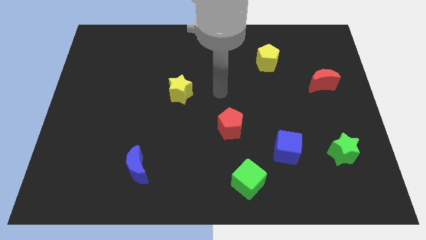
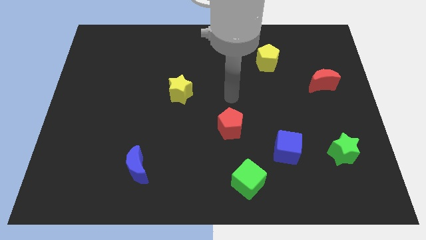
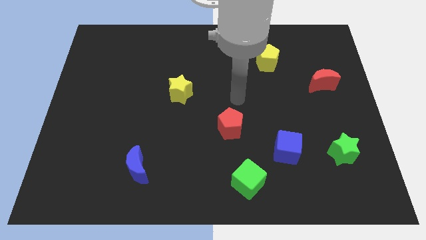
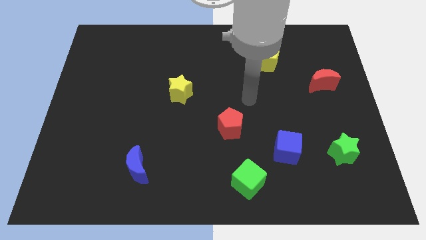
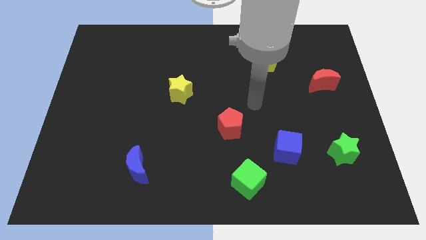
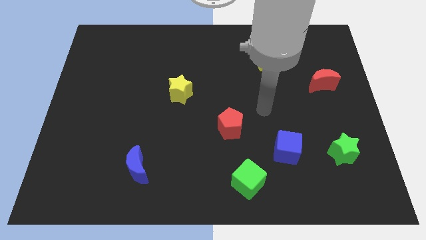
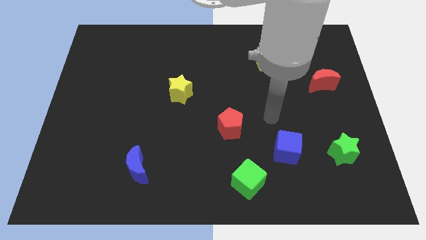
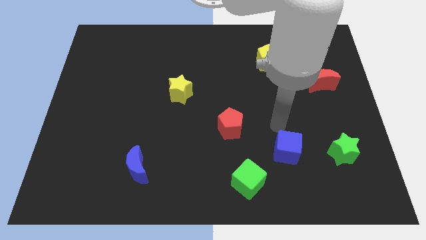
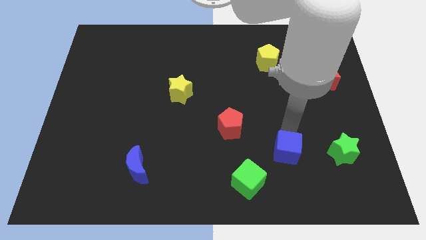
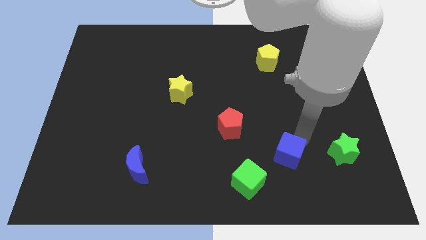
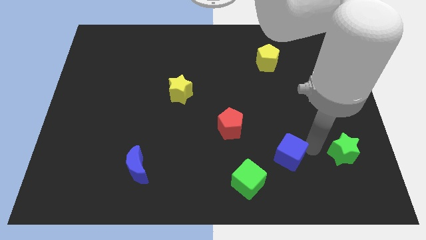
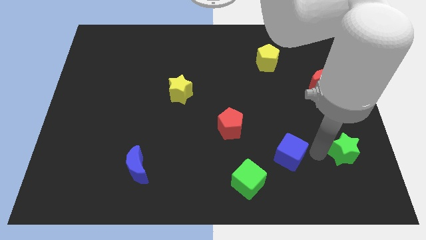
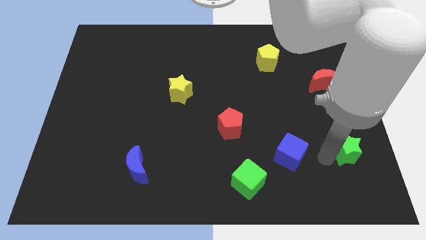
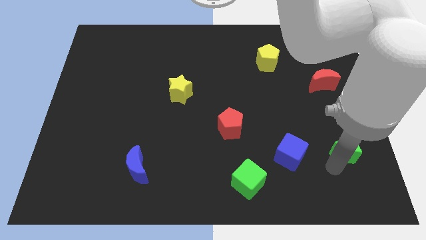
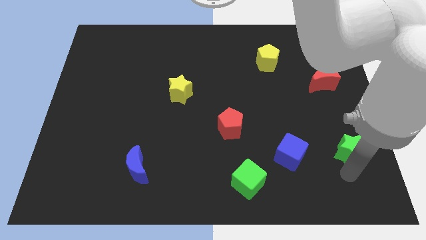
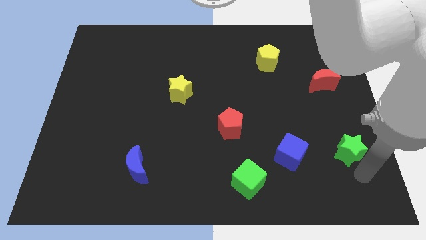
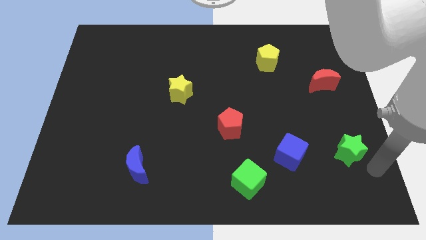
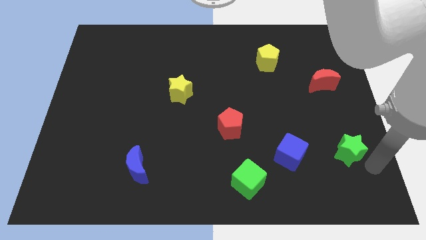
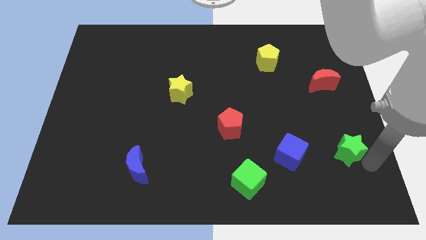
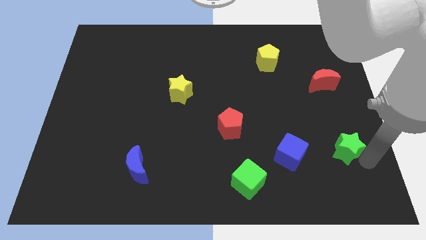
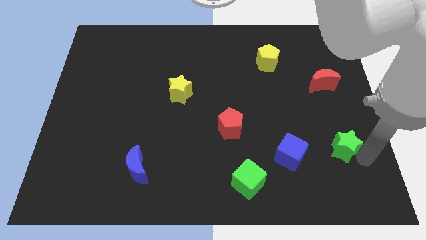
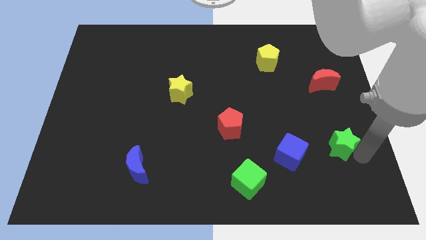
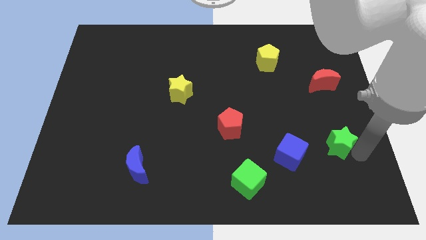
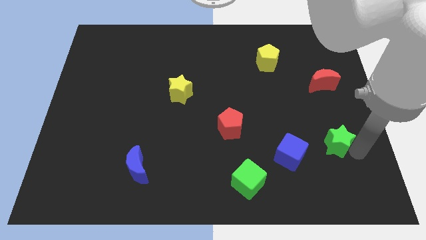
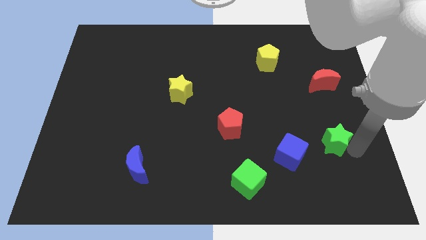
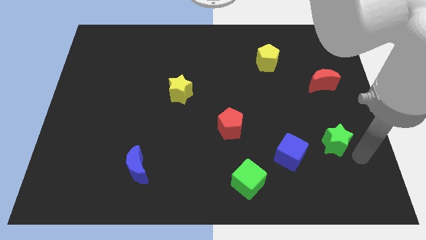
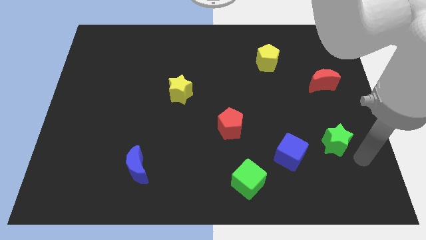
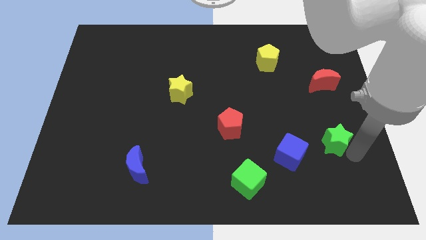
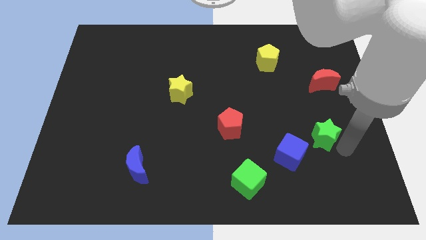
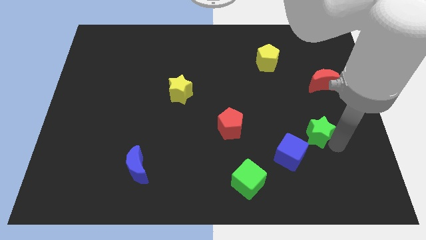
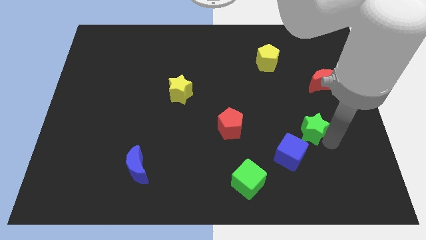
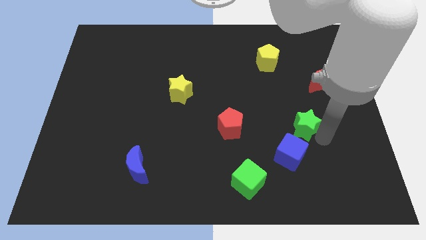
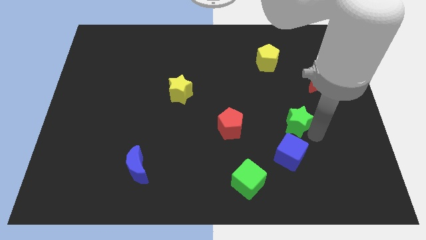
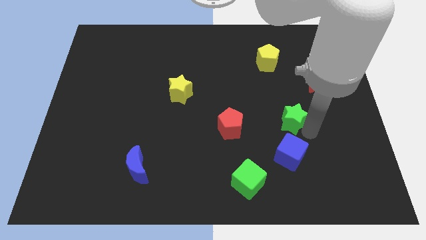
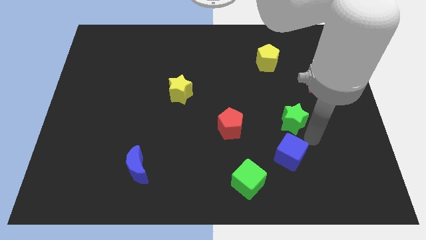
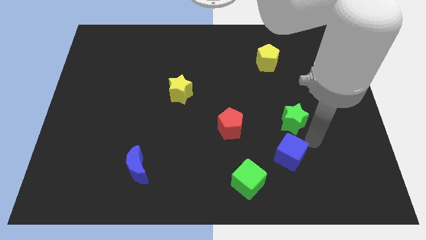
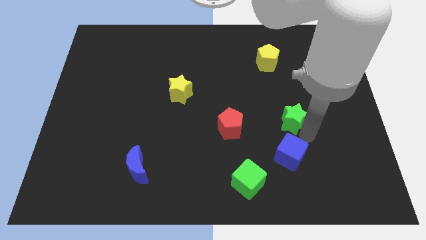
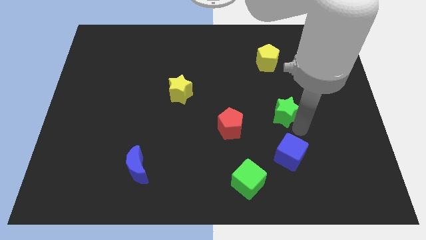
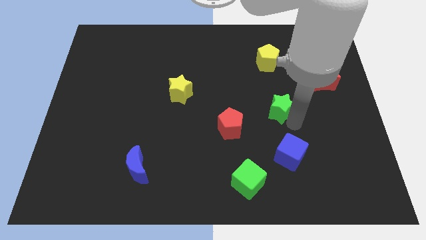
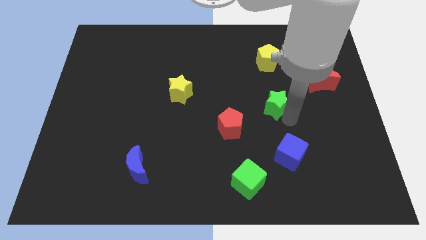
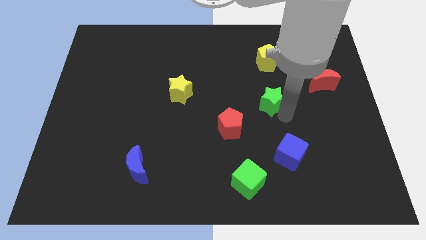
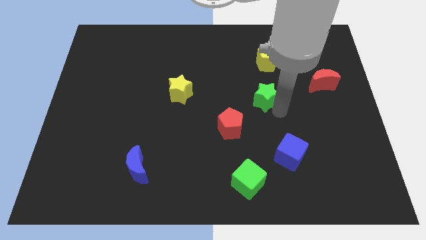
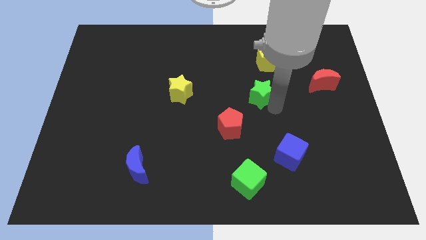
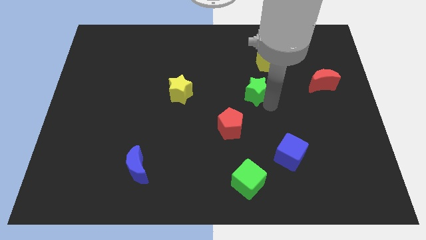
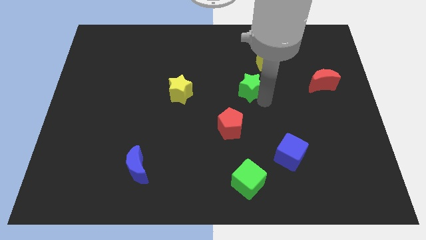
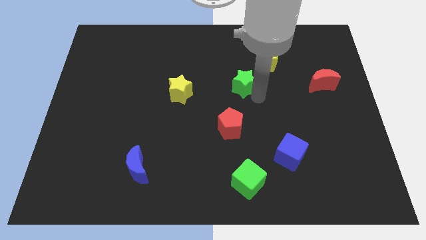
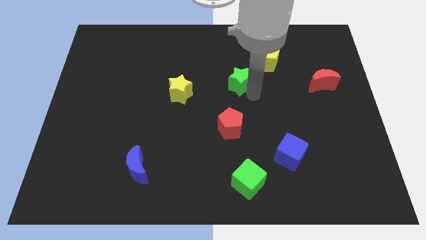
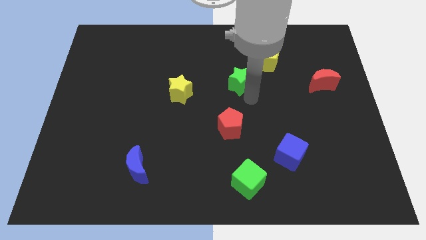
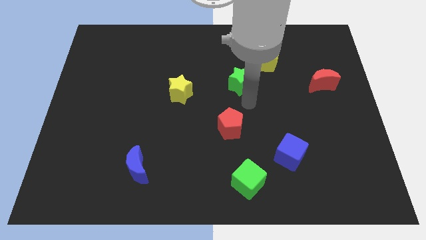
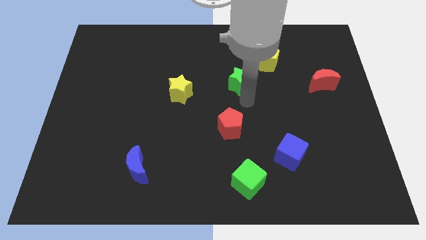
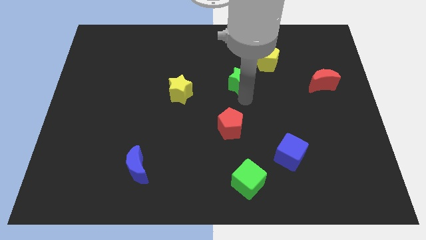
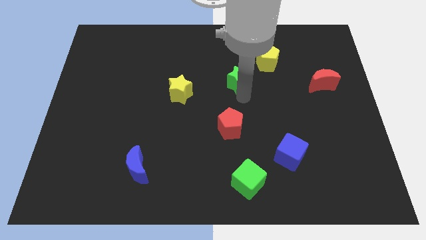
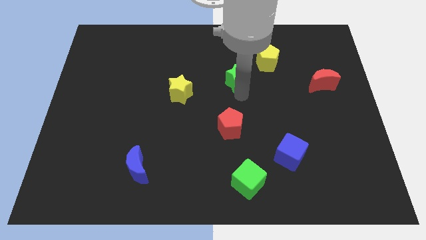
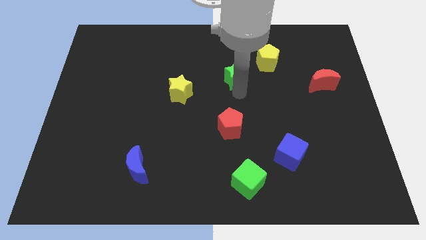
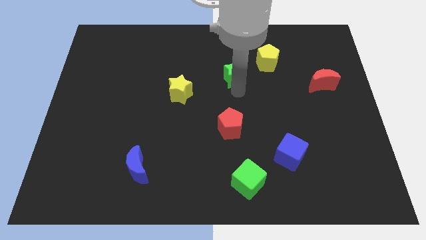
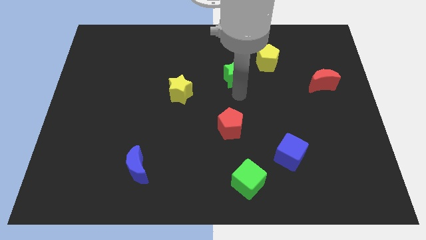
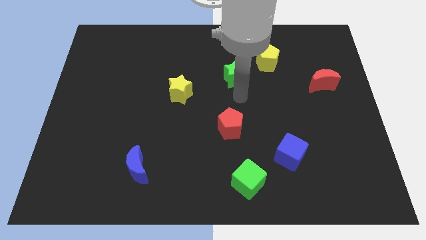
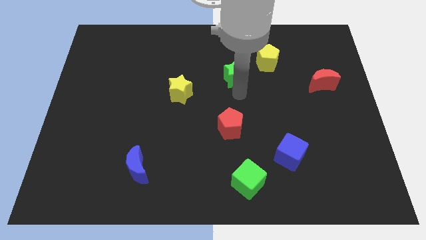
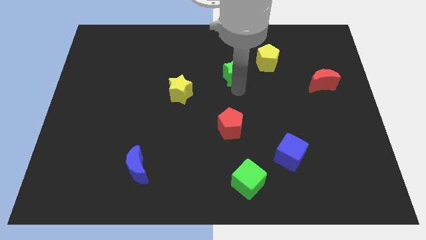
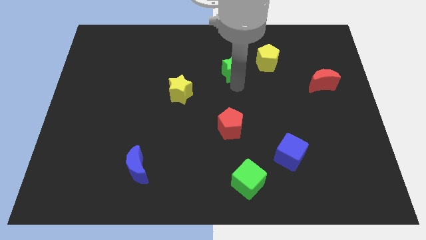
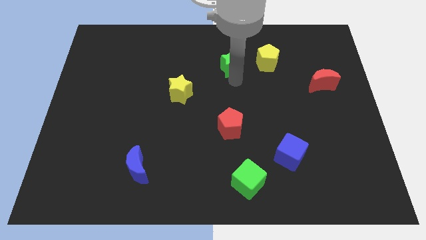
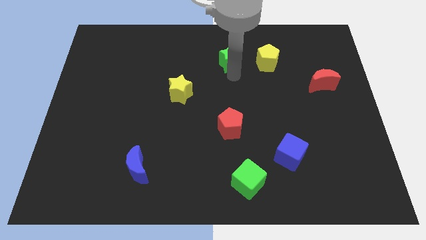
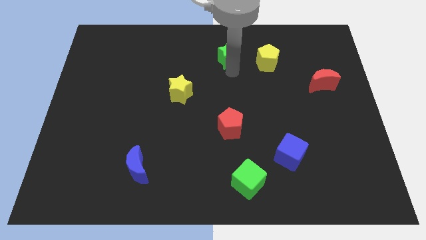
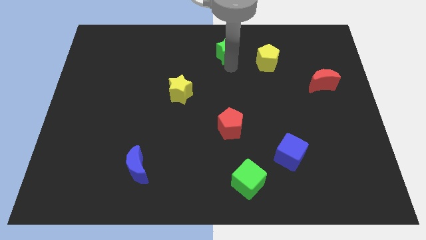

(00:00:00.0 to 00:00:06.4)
push the green star to the top side
